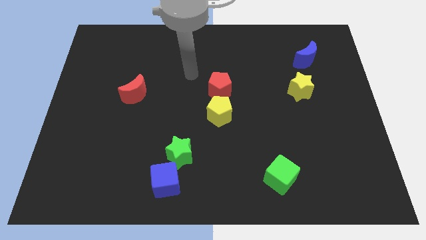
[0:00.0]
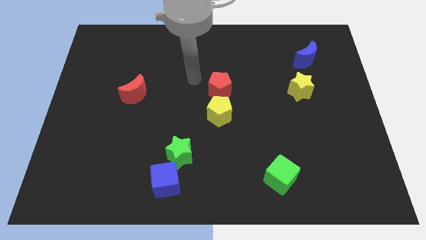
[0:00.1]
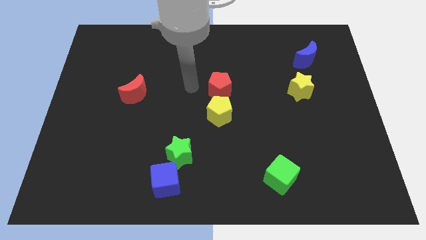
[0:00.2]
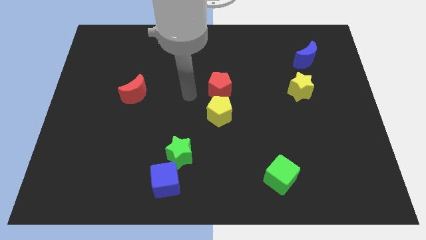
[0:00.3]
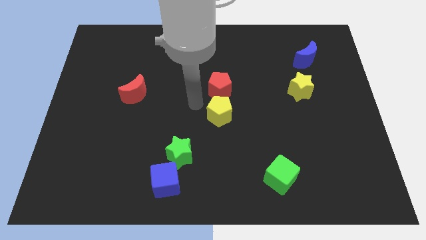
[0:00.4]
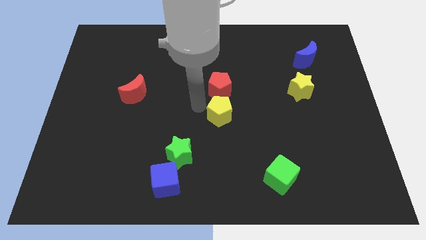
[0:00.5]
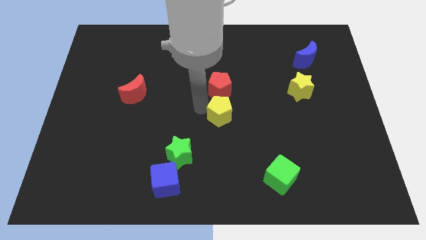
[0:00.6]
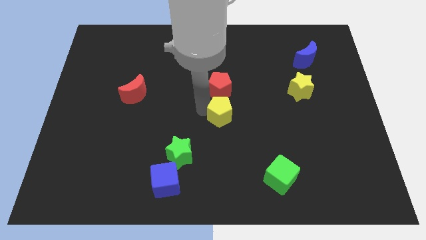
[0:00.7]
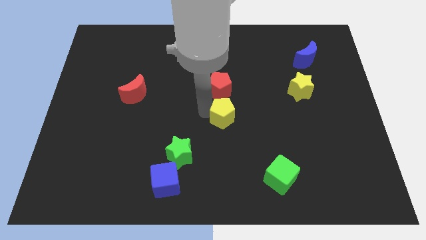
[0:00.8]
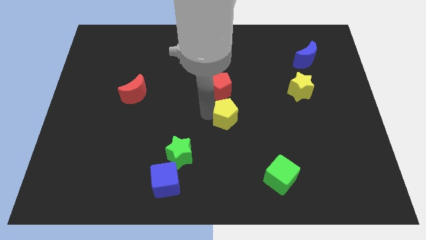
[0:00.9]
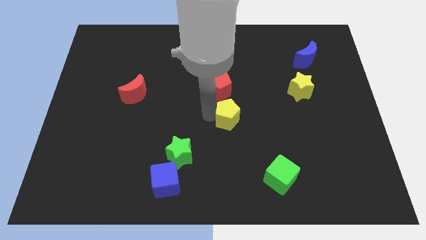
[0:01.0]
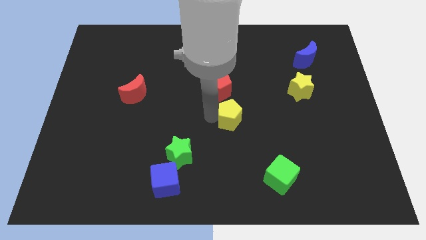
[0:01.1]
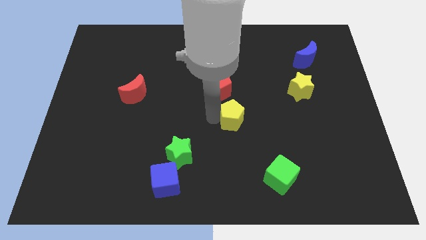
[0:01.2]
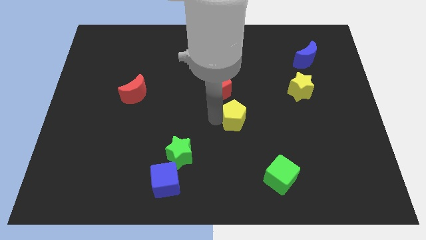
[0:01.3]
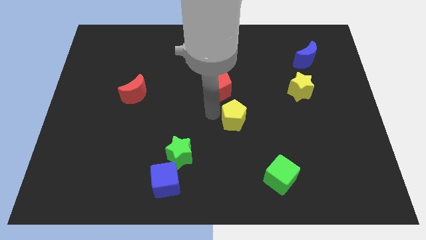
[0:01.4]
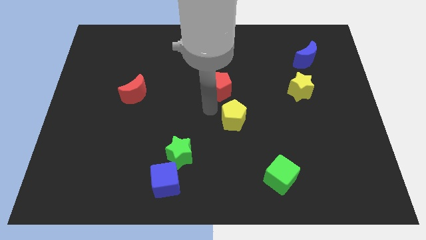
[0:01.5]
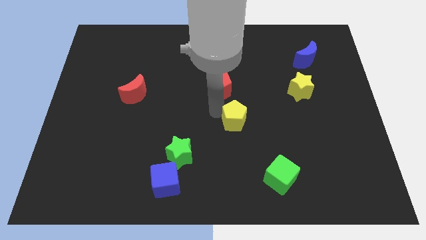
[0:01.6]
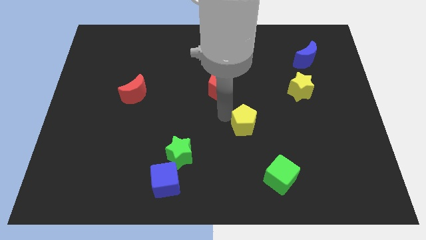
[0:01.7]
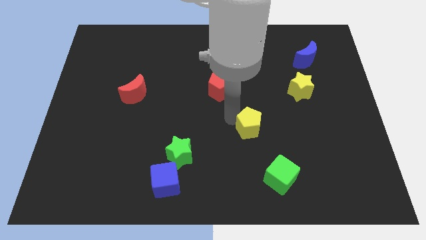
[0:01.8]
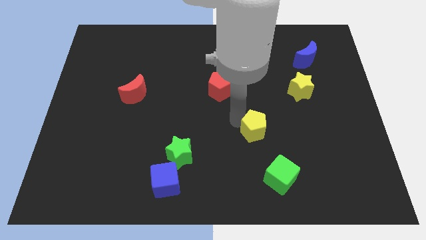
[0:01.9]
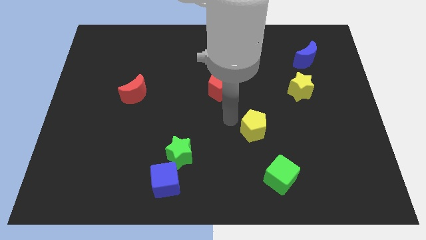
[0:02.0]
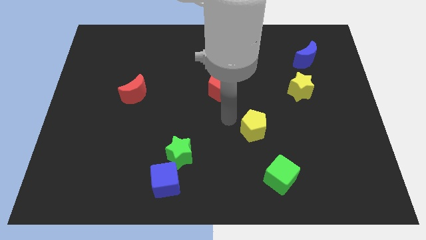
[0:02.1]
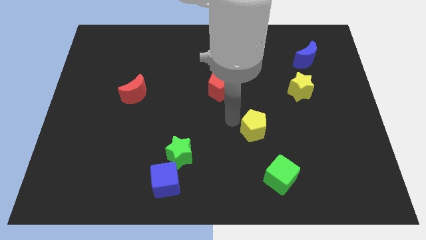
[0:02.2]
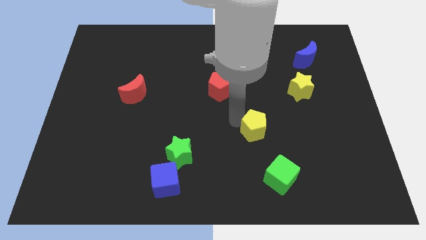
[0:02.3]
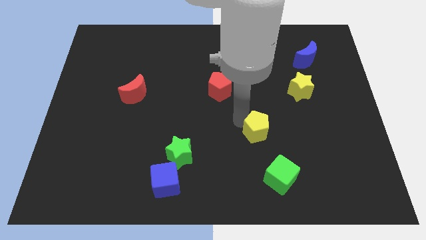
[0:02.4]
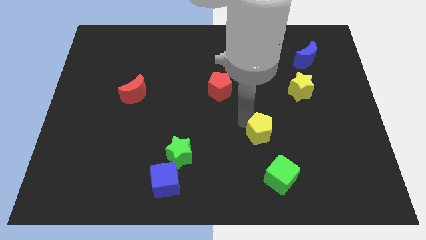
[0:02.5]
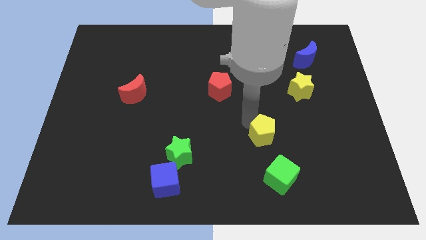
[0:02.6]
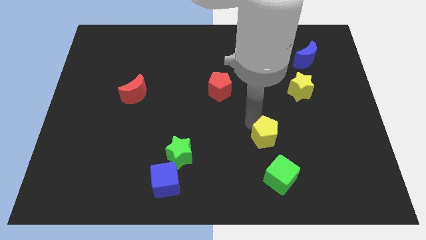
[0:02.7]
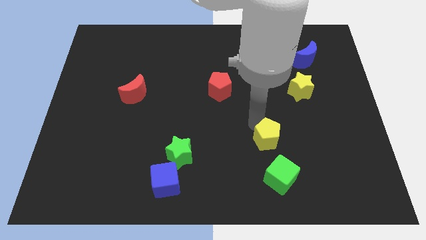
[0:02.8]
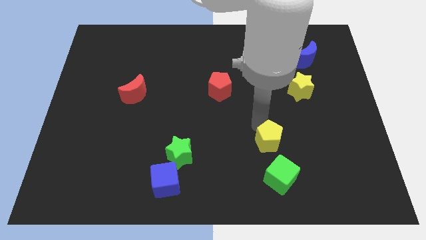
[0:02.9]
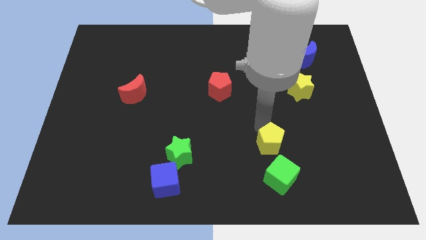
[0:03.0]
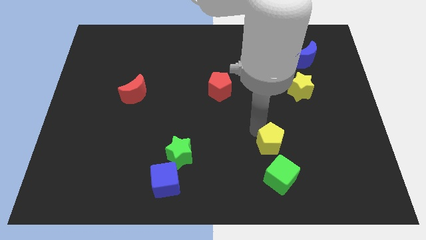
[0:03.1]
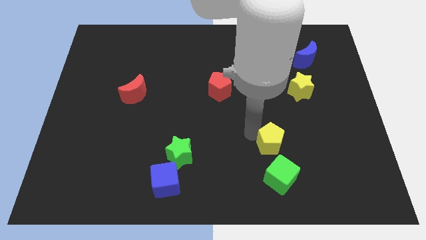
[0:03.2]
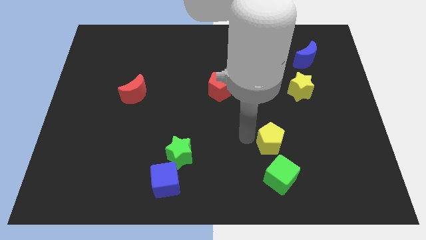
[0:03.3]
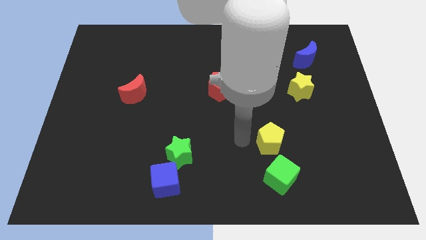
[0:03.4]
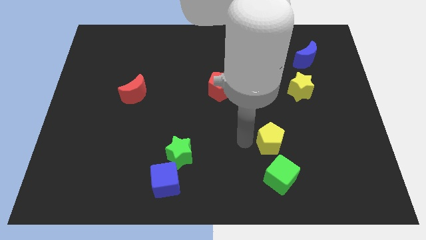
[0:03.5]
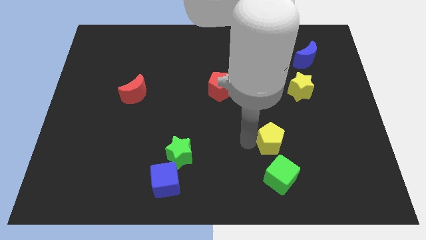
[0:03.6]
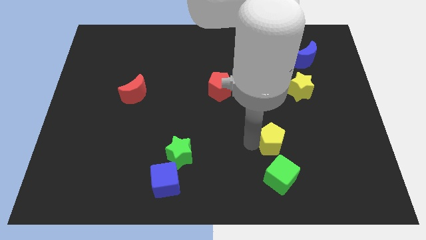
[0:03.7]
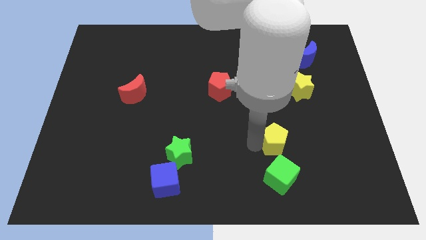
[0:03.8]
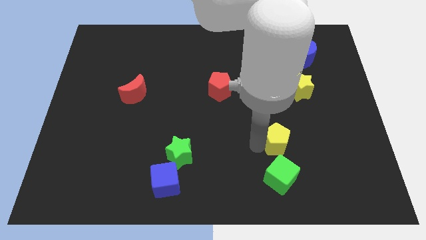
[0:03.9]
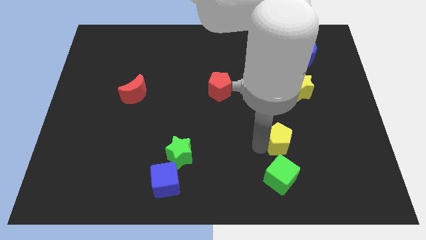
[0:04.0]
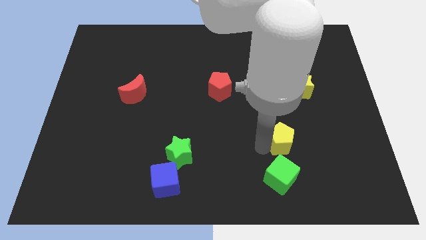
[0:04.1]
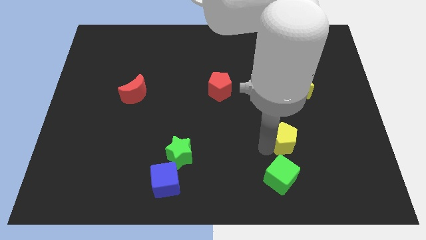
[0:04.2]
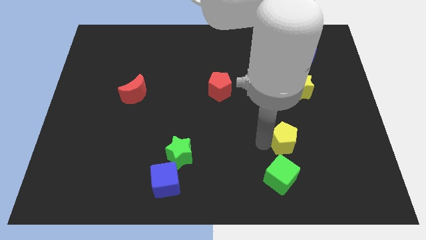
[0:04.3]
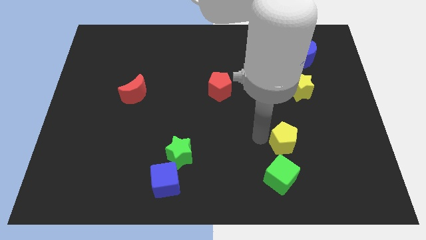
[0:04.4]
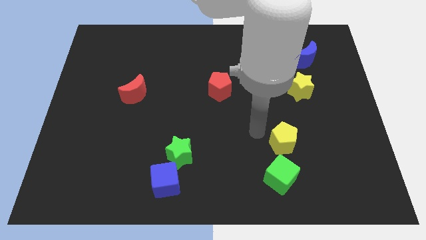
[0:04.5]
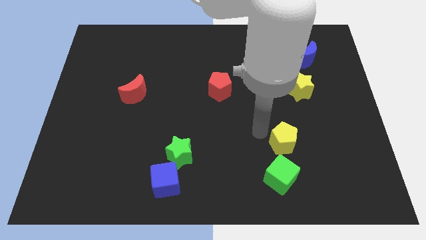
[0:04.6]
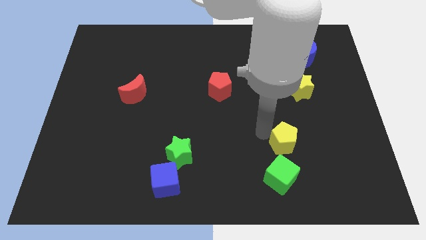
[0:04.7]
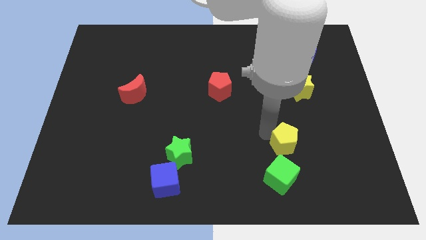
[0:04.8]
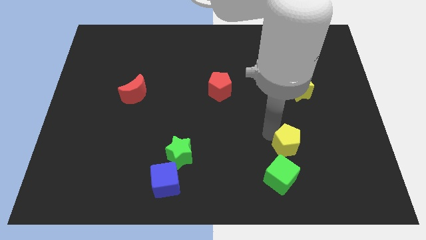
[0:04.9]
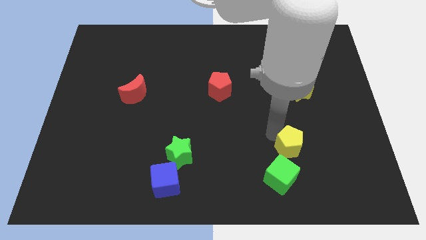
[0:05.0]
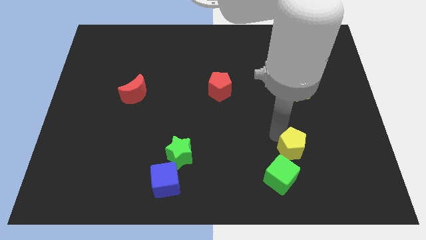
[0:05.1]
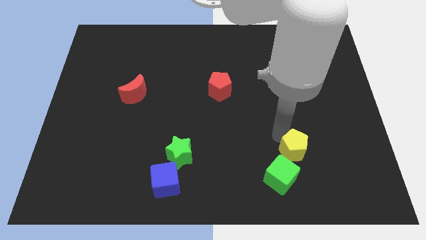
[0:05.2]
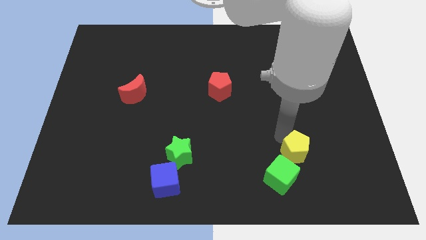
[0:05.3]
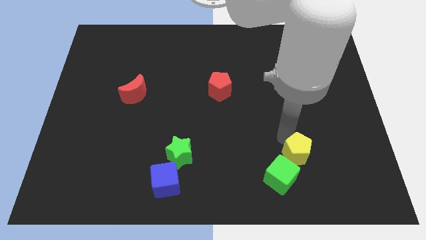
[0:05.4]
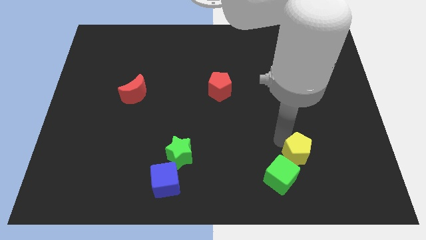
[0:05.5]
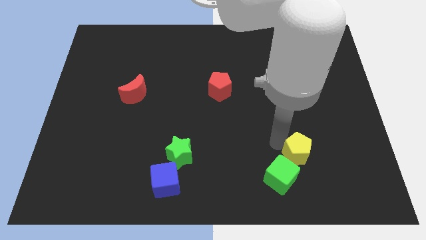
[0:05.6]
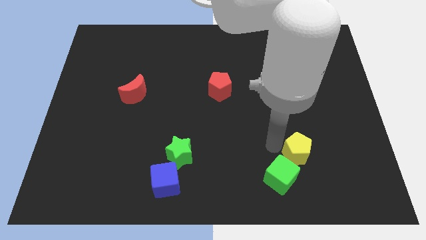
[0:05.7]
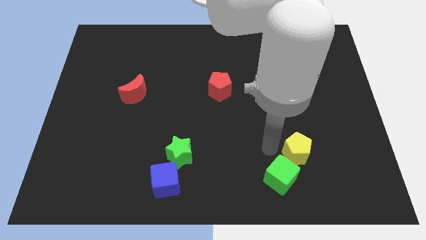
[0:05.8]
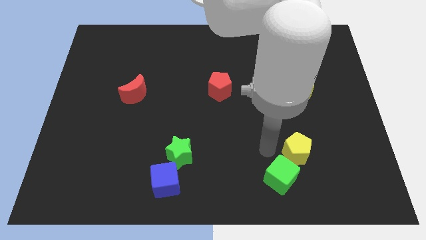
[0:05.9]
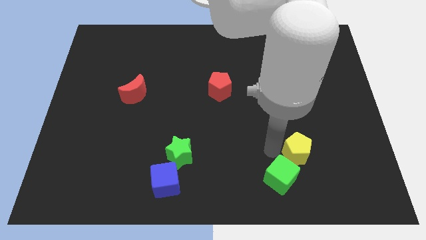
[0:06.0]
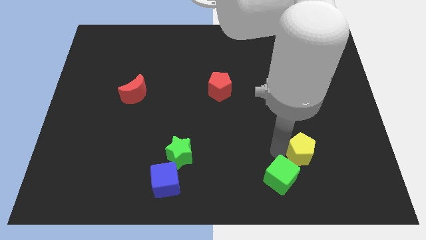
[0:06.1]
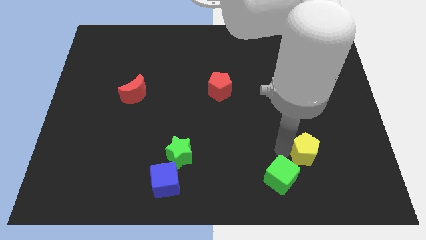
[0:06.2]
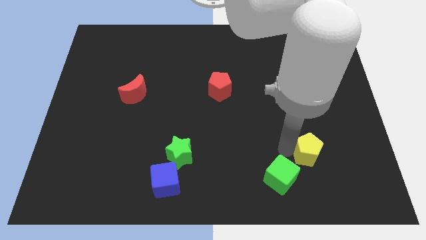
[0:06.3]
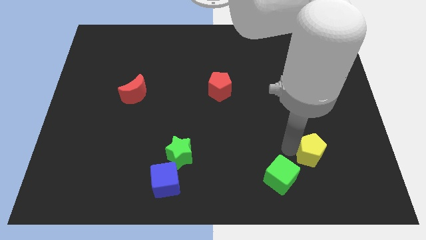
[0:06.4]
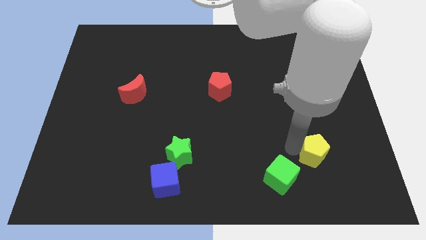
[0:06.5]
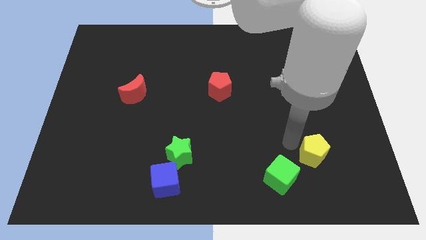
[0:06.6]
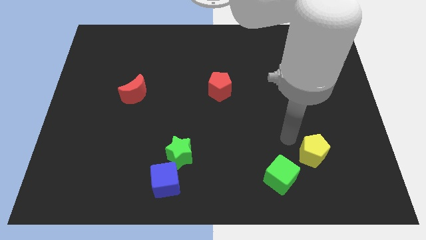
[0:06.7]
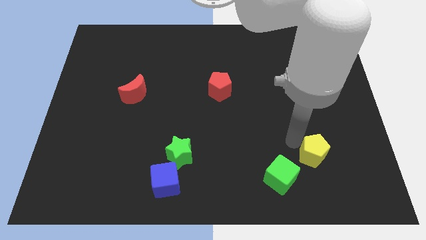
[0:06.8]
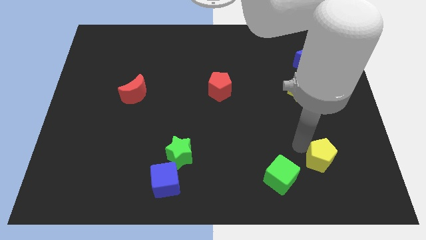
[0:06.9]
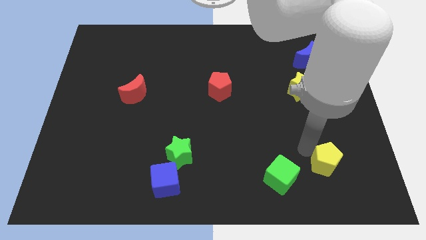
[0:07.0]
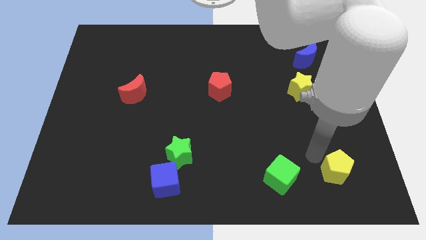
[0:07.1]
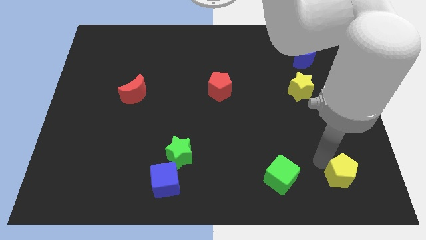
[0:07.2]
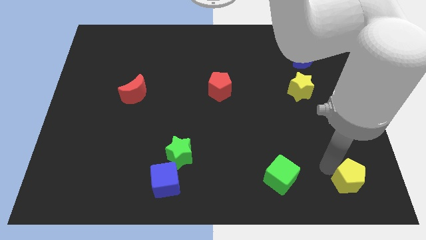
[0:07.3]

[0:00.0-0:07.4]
put the yellow pentagon to the bottom right of the board
